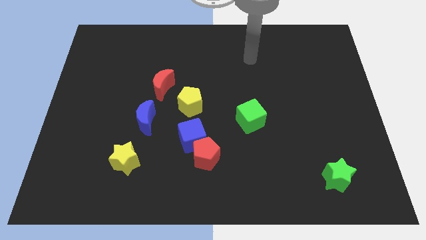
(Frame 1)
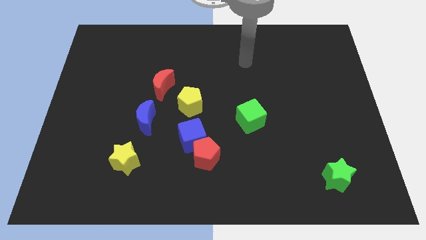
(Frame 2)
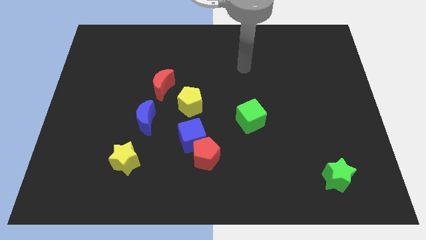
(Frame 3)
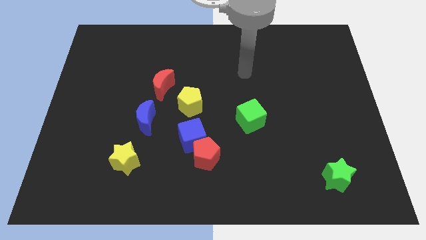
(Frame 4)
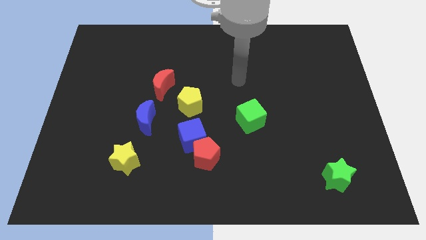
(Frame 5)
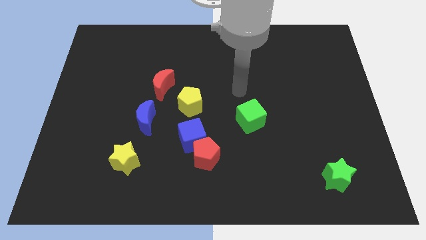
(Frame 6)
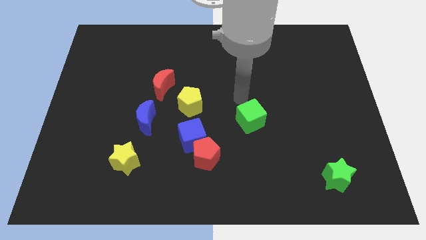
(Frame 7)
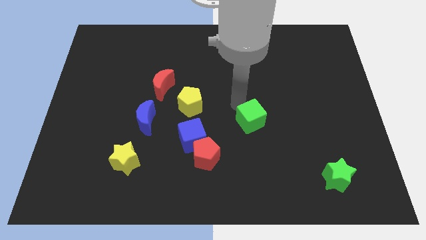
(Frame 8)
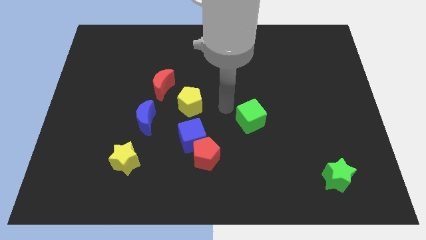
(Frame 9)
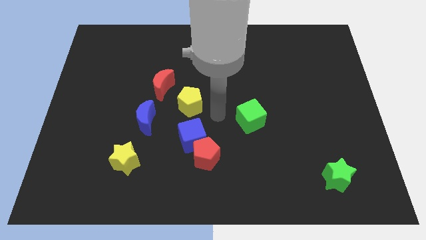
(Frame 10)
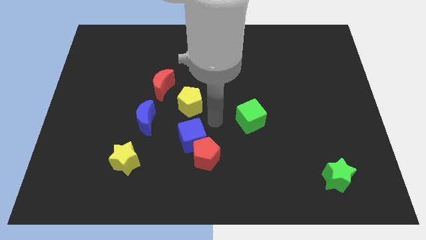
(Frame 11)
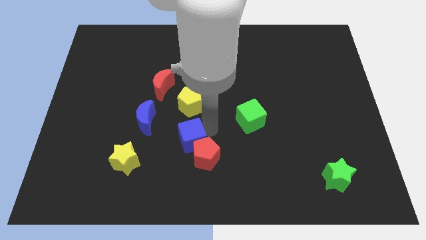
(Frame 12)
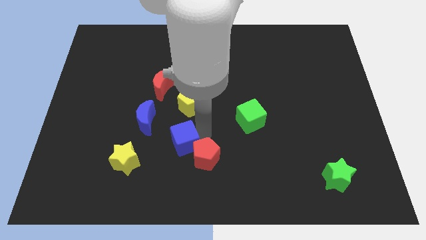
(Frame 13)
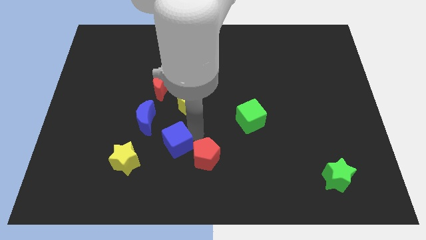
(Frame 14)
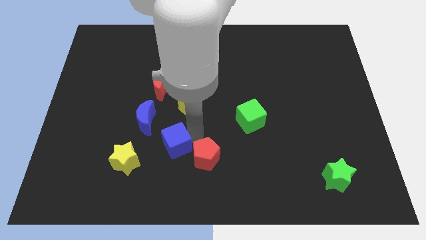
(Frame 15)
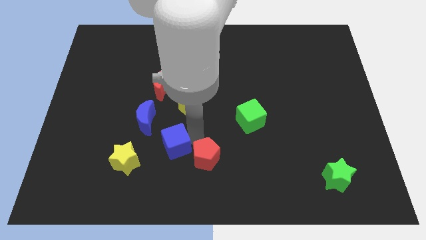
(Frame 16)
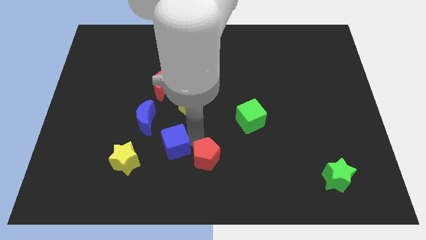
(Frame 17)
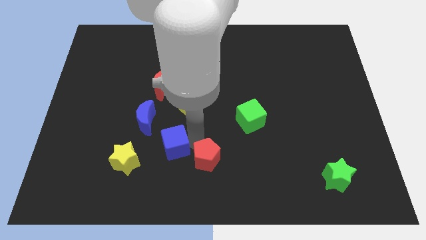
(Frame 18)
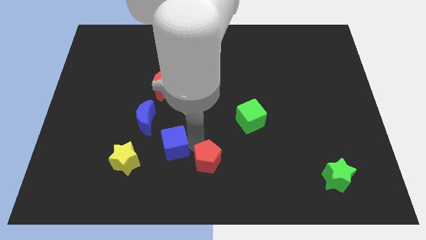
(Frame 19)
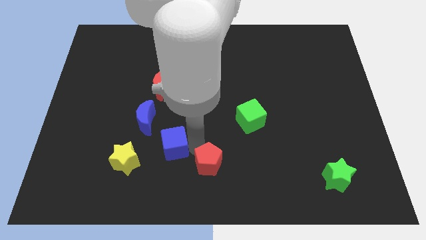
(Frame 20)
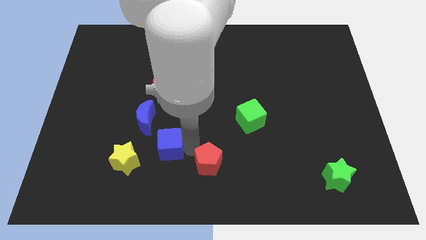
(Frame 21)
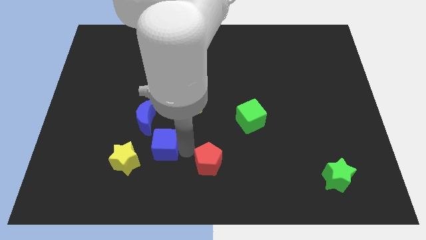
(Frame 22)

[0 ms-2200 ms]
move the red pentagon away from the blue cube

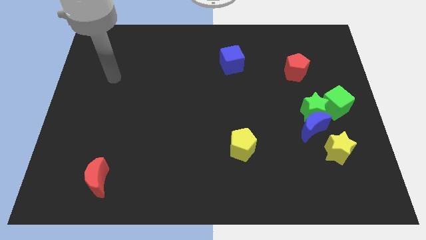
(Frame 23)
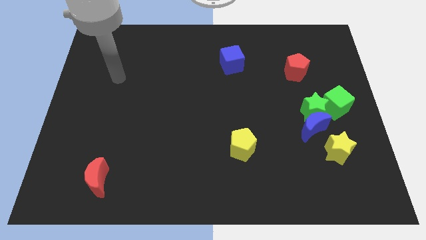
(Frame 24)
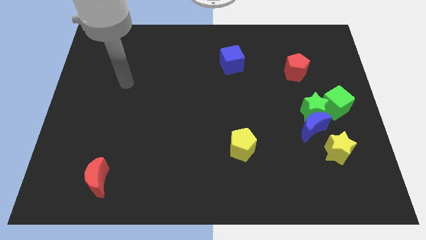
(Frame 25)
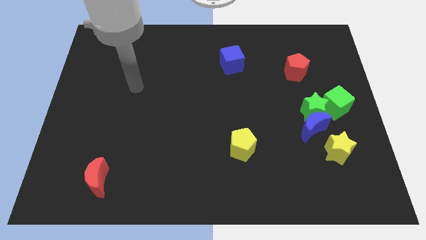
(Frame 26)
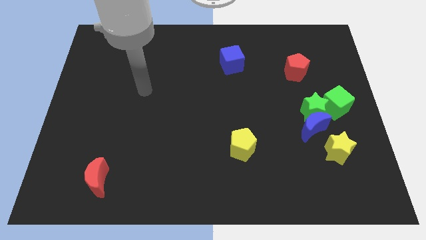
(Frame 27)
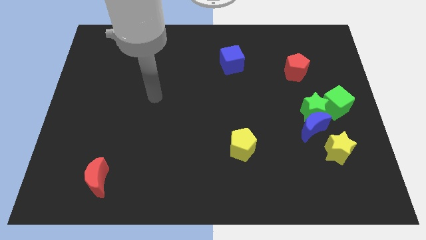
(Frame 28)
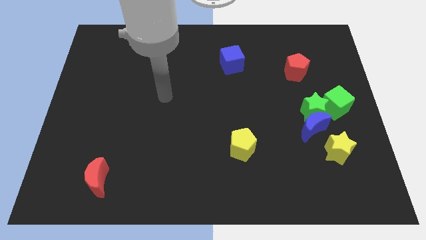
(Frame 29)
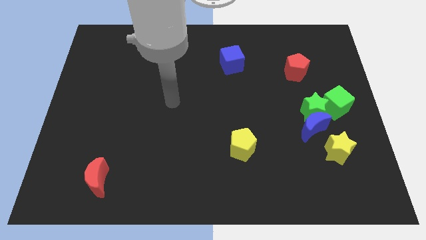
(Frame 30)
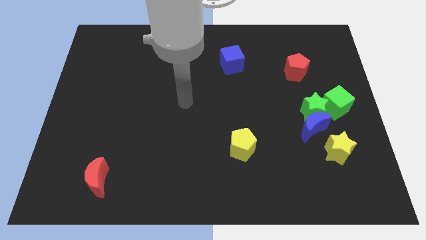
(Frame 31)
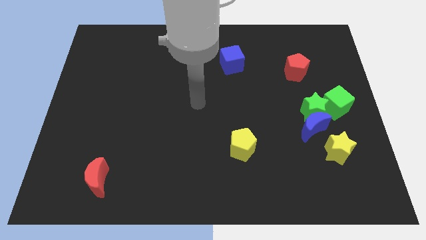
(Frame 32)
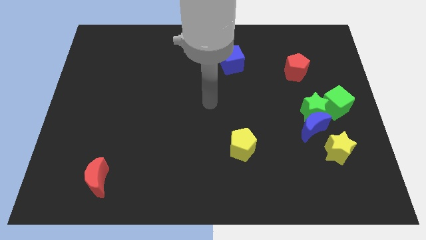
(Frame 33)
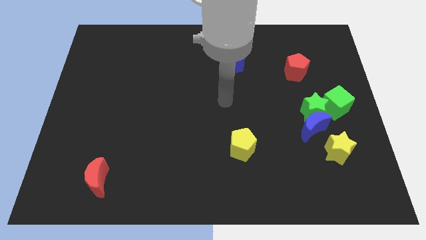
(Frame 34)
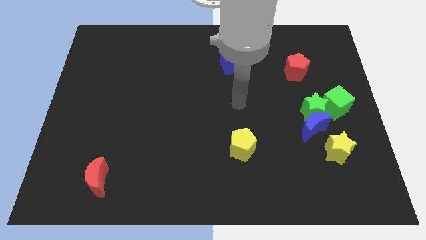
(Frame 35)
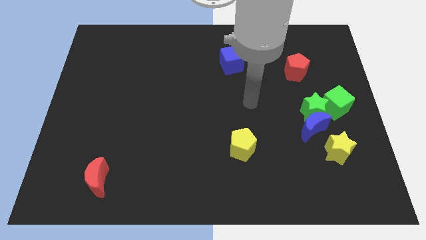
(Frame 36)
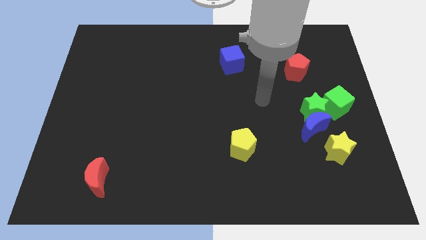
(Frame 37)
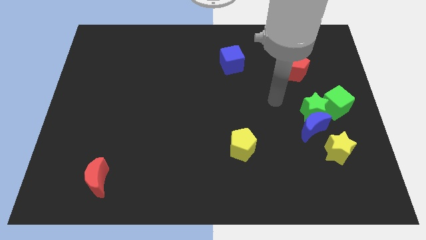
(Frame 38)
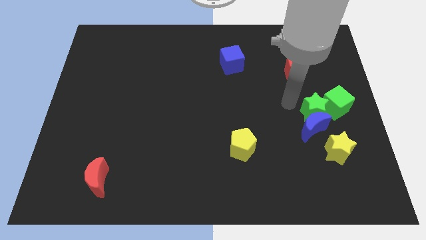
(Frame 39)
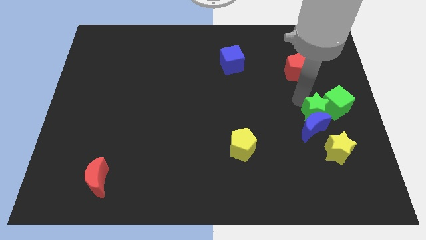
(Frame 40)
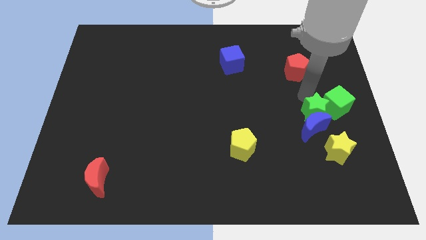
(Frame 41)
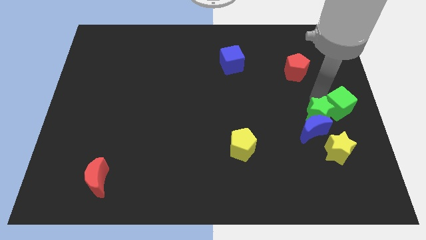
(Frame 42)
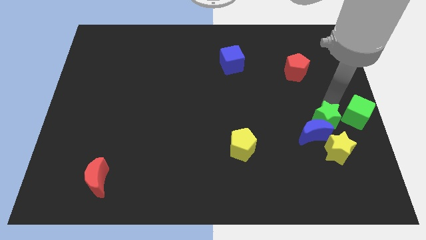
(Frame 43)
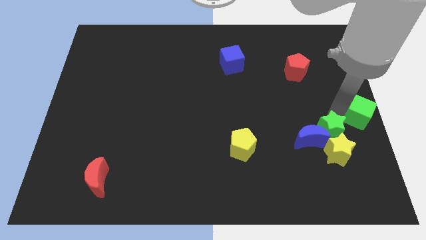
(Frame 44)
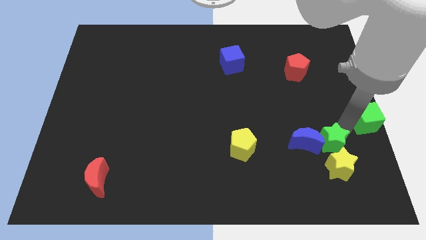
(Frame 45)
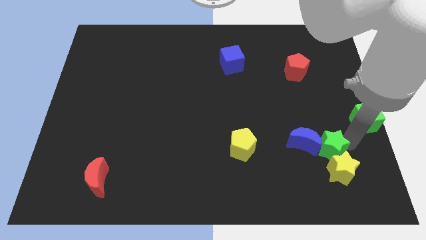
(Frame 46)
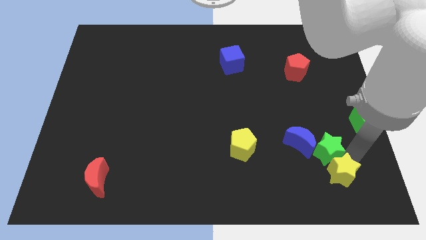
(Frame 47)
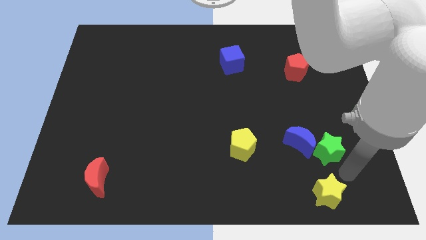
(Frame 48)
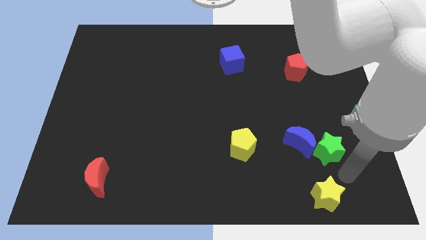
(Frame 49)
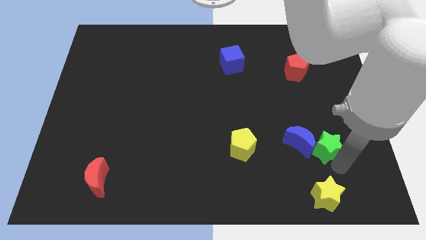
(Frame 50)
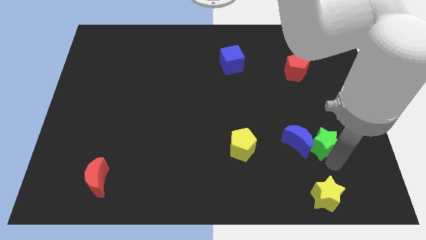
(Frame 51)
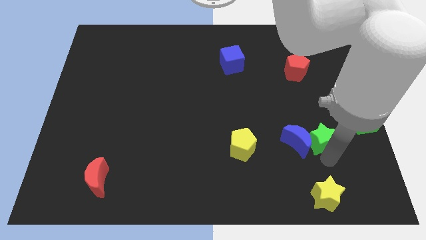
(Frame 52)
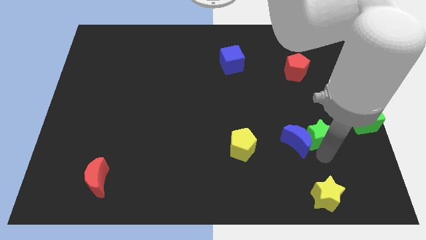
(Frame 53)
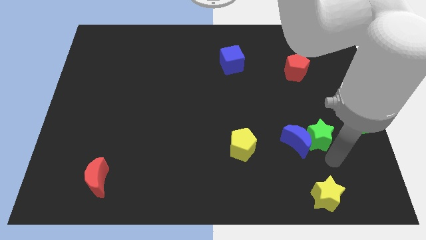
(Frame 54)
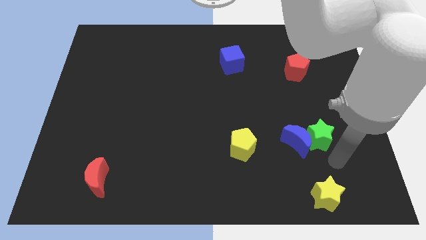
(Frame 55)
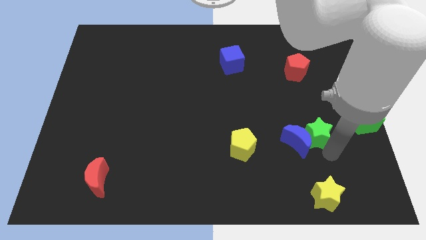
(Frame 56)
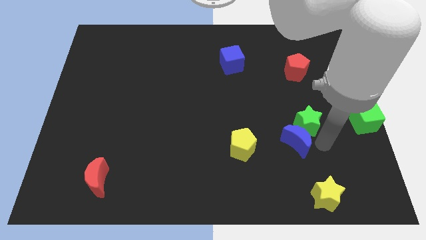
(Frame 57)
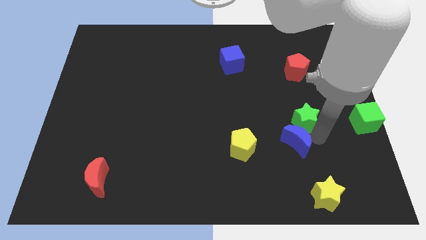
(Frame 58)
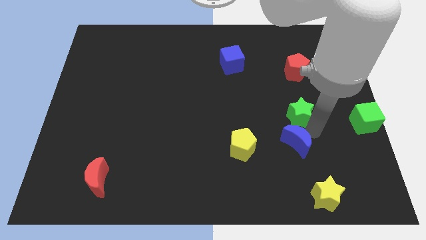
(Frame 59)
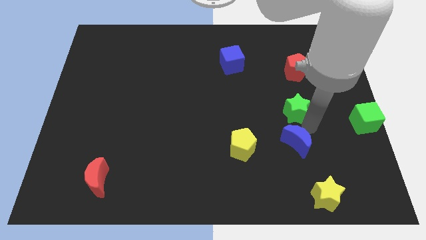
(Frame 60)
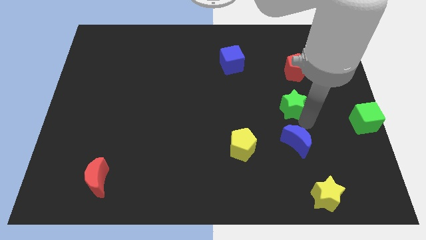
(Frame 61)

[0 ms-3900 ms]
separate the green star from the blue moon and green cube

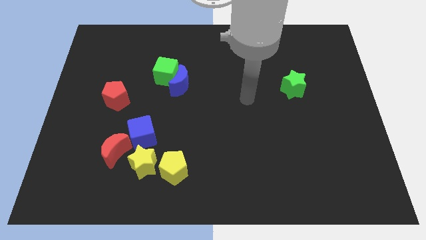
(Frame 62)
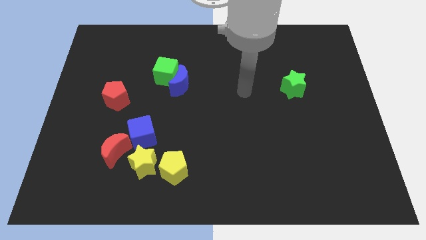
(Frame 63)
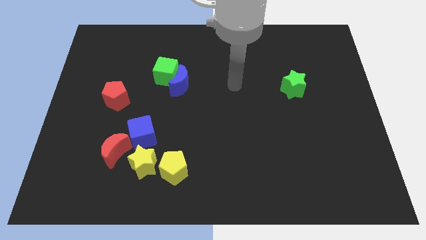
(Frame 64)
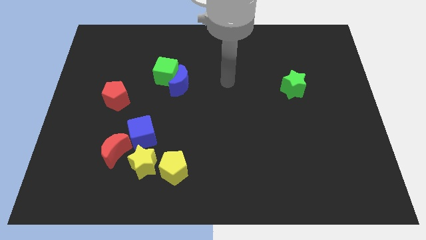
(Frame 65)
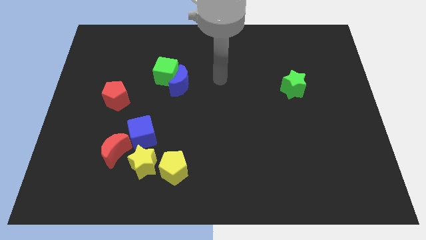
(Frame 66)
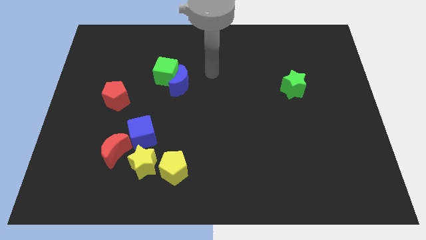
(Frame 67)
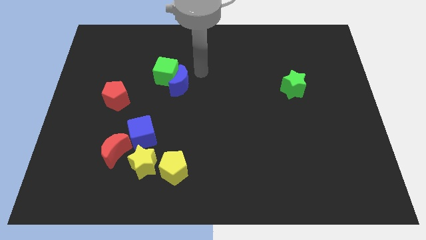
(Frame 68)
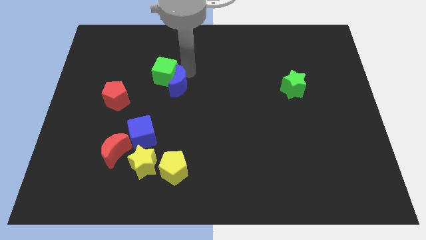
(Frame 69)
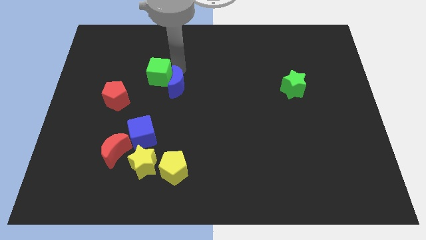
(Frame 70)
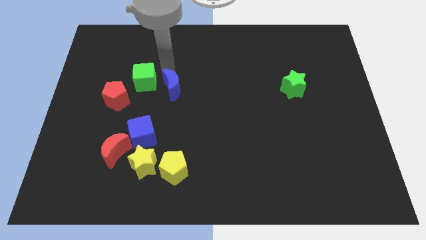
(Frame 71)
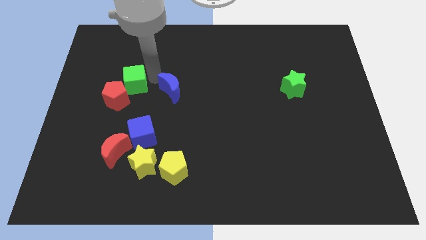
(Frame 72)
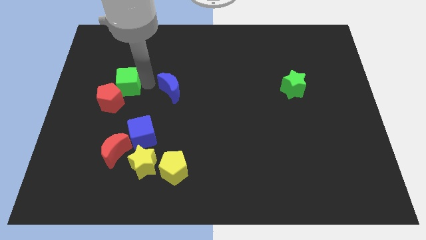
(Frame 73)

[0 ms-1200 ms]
pull the blue moon apart from the green cube

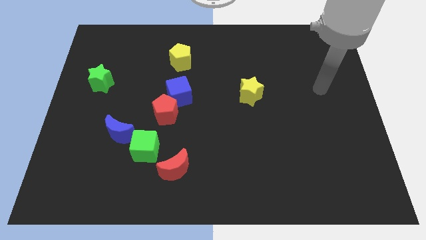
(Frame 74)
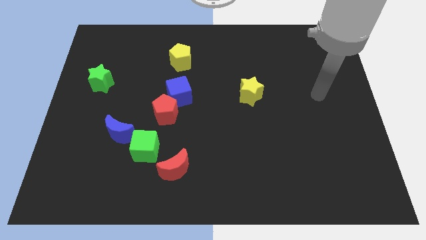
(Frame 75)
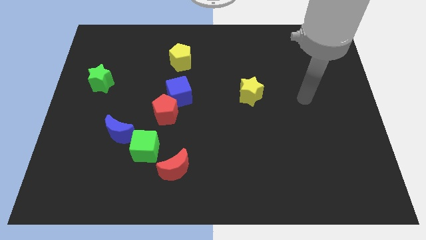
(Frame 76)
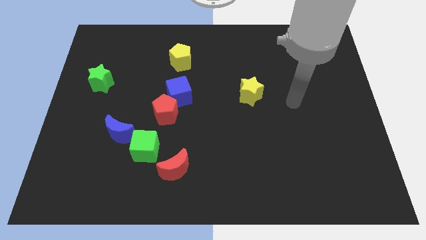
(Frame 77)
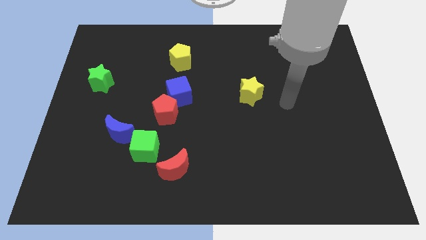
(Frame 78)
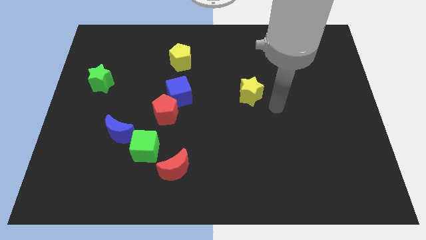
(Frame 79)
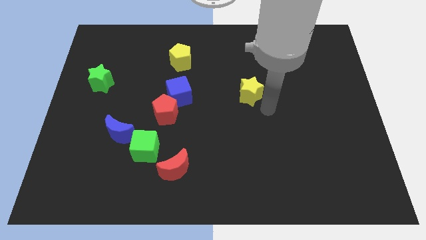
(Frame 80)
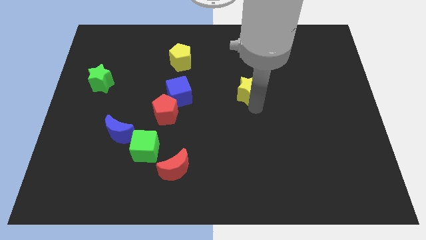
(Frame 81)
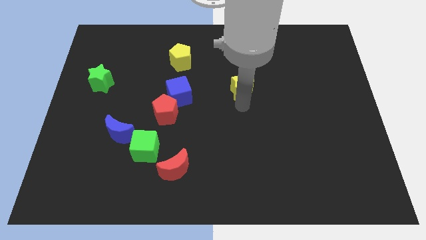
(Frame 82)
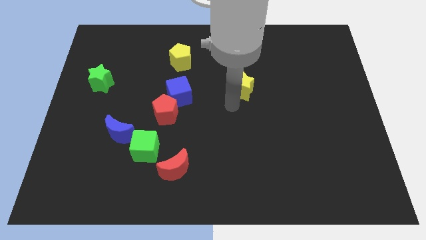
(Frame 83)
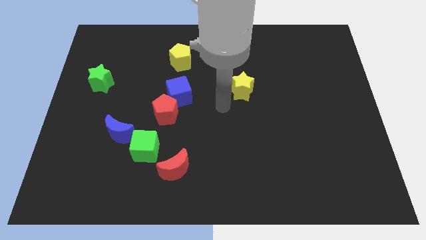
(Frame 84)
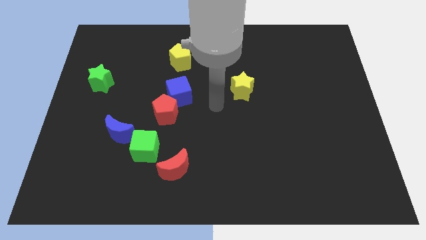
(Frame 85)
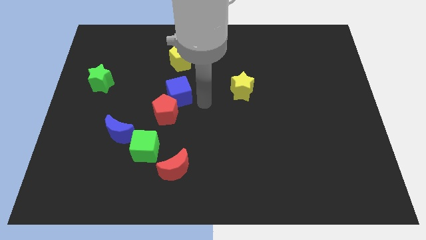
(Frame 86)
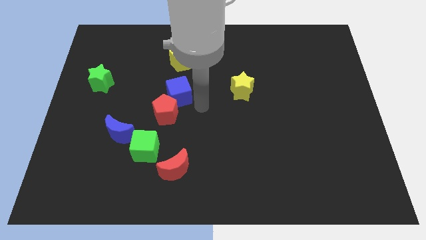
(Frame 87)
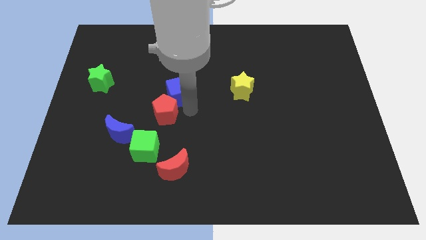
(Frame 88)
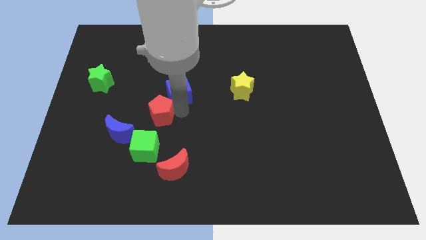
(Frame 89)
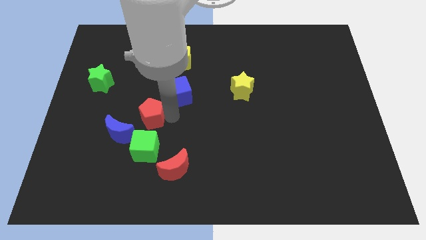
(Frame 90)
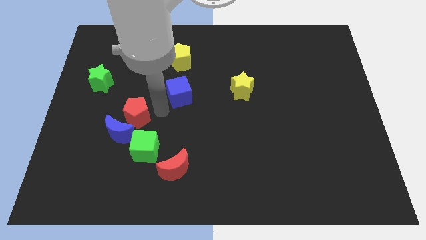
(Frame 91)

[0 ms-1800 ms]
move the blue cube away from the red pentagon

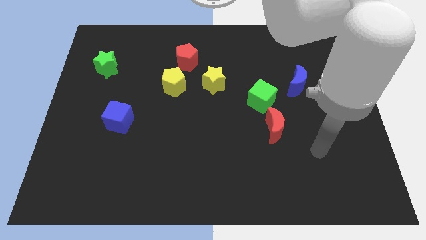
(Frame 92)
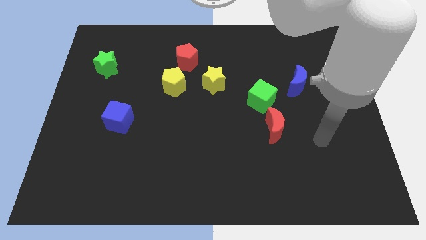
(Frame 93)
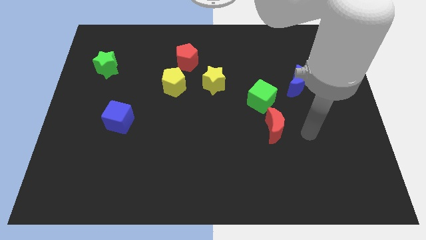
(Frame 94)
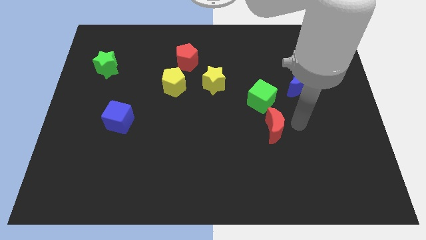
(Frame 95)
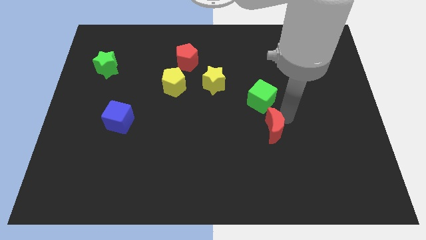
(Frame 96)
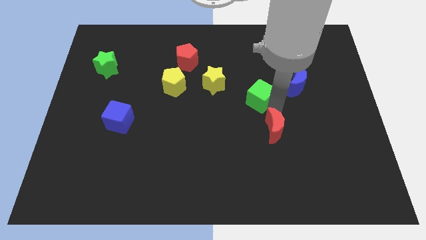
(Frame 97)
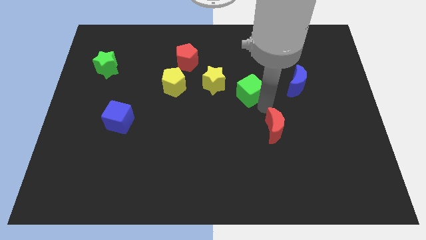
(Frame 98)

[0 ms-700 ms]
pull the red moon apart from the green cube
